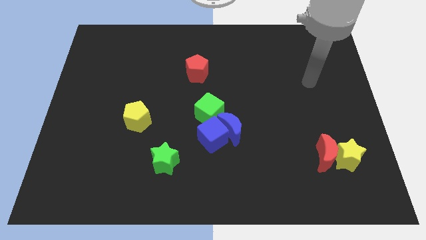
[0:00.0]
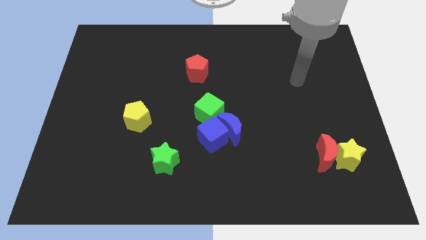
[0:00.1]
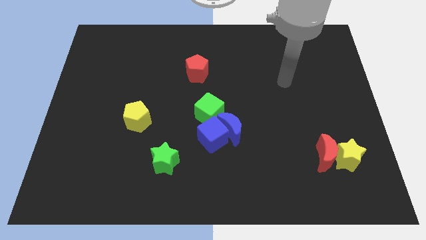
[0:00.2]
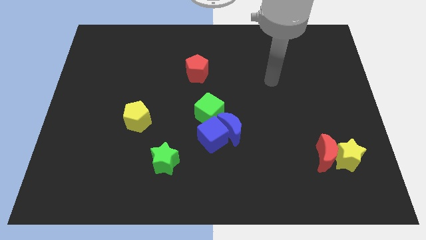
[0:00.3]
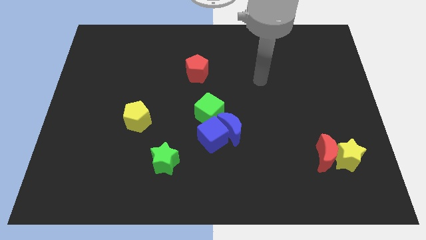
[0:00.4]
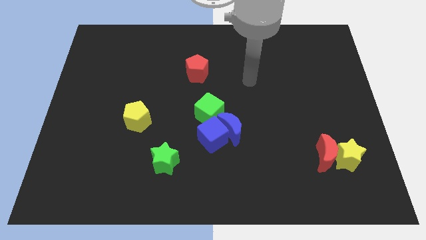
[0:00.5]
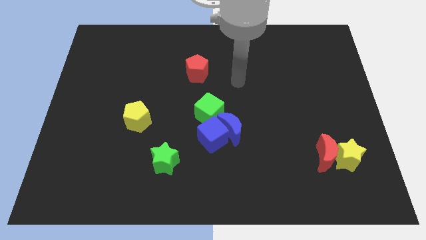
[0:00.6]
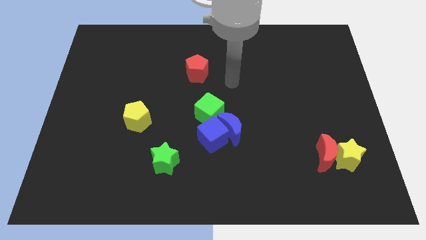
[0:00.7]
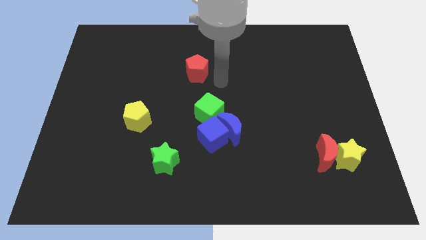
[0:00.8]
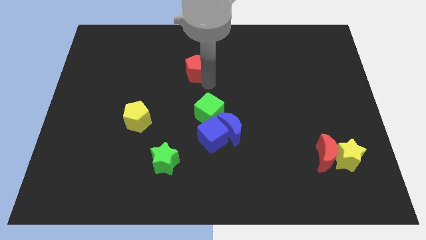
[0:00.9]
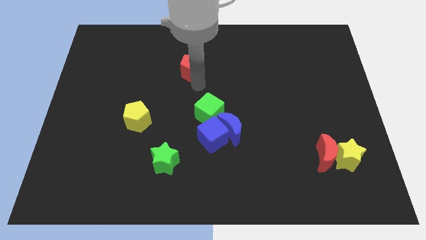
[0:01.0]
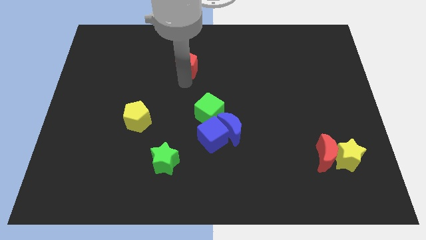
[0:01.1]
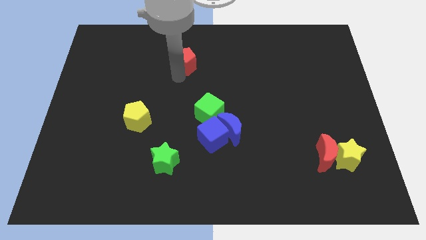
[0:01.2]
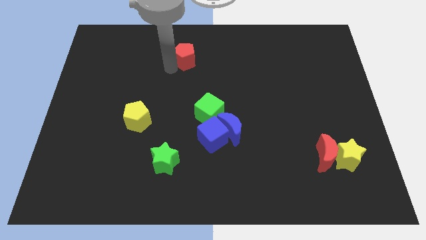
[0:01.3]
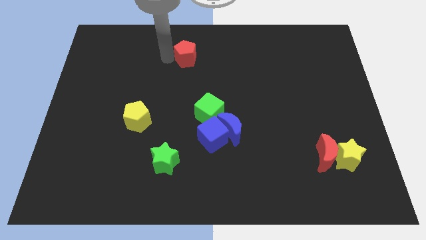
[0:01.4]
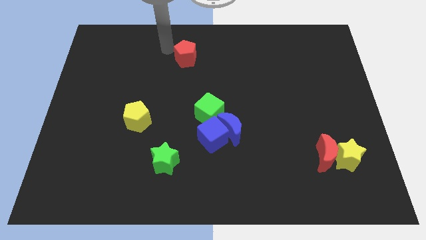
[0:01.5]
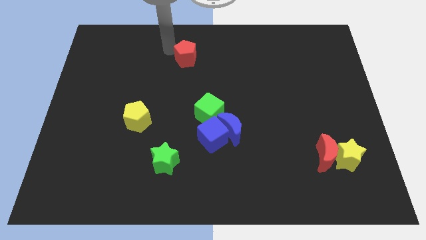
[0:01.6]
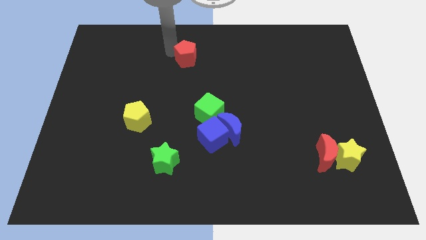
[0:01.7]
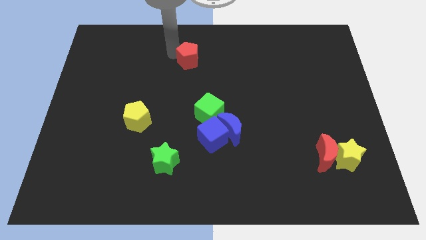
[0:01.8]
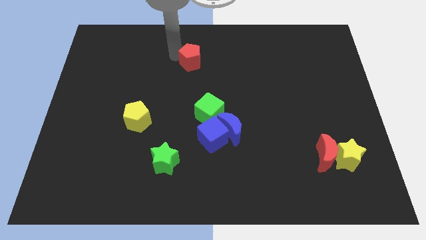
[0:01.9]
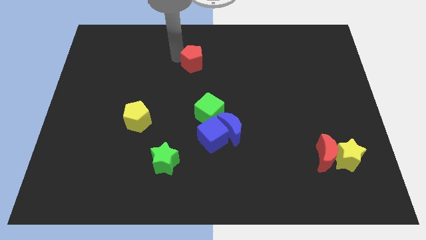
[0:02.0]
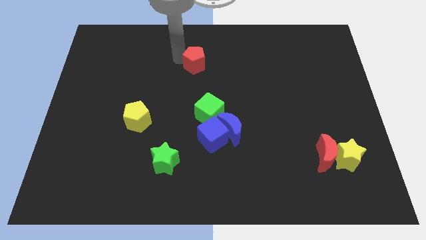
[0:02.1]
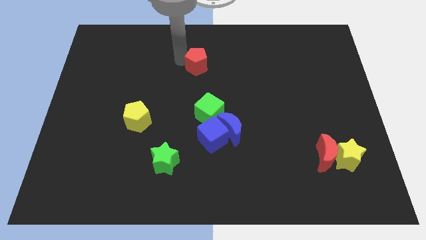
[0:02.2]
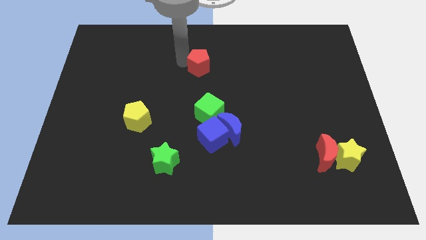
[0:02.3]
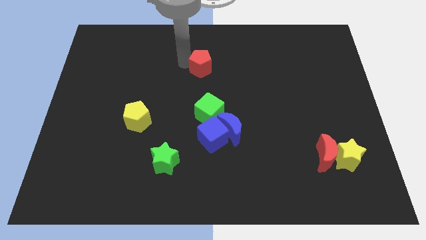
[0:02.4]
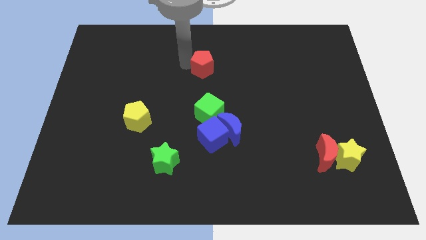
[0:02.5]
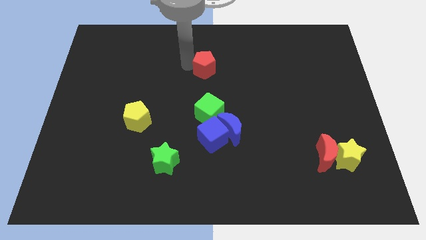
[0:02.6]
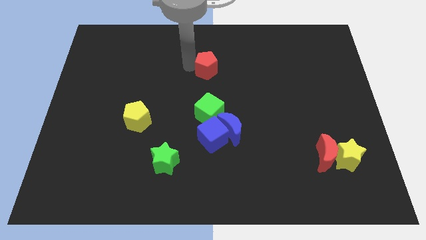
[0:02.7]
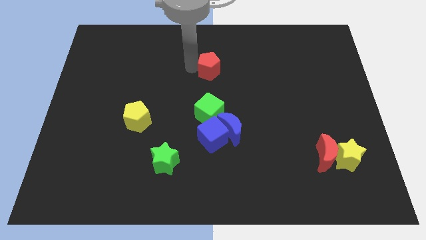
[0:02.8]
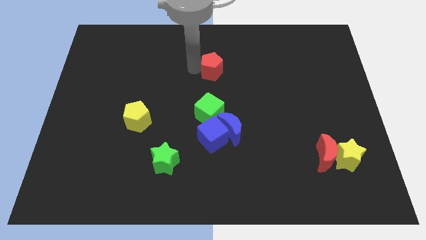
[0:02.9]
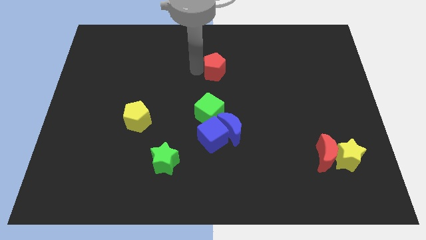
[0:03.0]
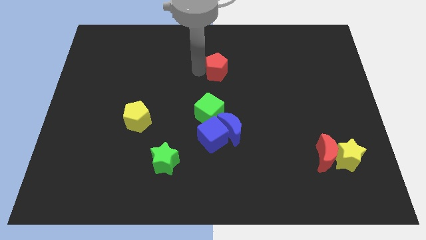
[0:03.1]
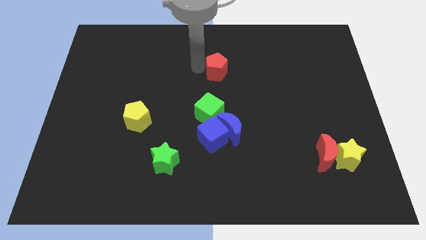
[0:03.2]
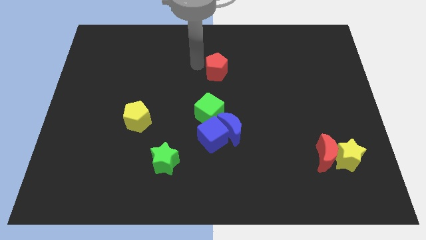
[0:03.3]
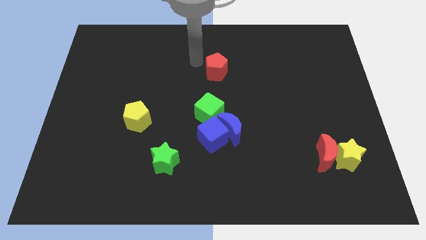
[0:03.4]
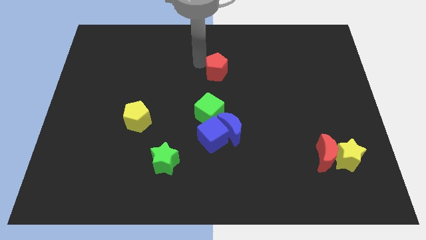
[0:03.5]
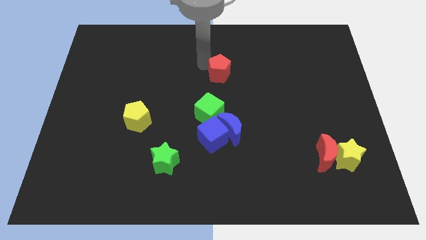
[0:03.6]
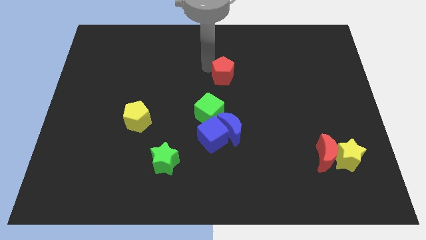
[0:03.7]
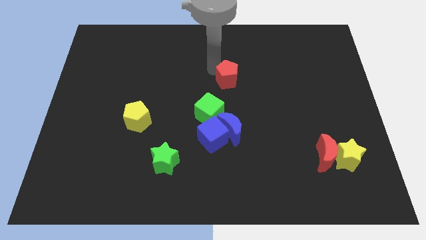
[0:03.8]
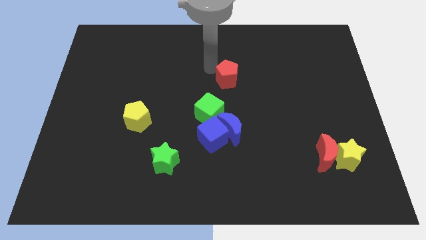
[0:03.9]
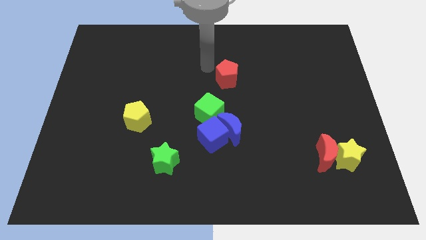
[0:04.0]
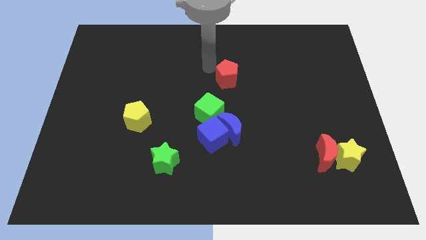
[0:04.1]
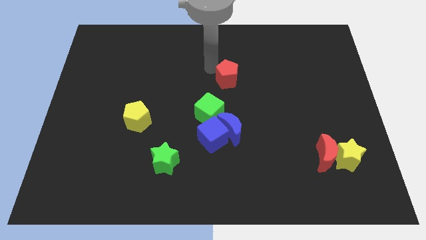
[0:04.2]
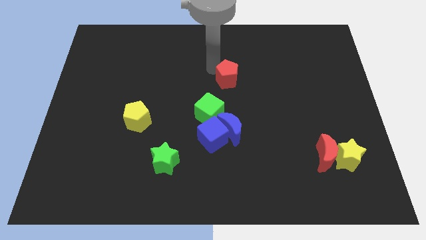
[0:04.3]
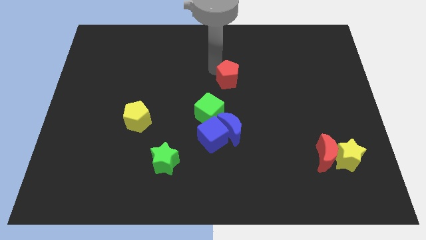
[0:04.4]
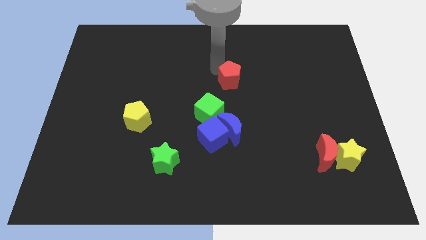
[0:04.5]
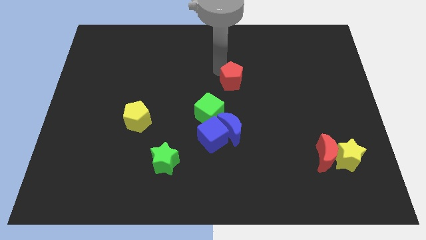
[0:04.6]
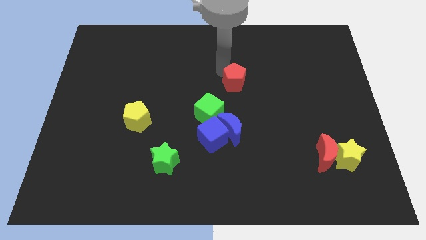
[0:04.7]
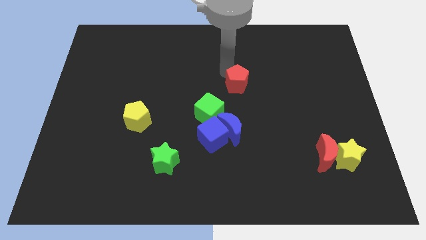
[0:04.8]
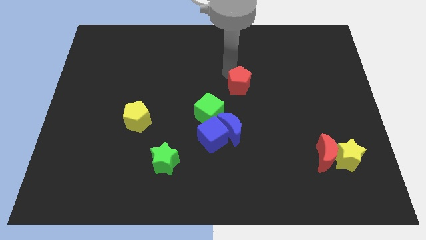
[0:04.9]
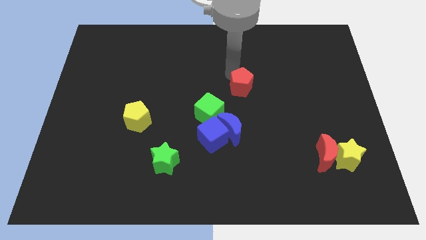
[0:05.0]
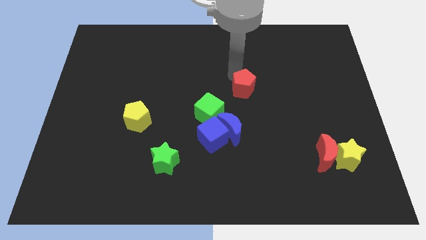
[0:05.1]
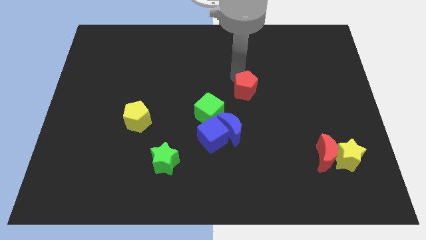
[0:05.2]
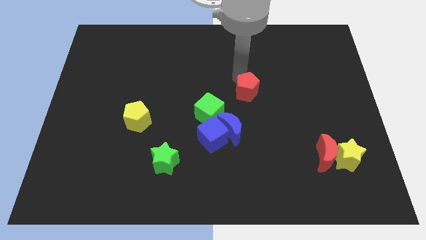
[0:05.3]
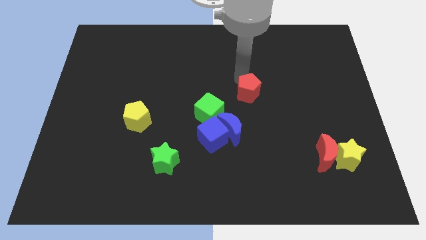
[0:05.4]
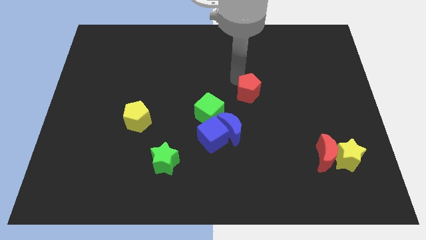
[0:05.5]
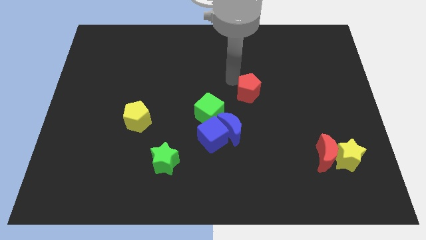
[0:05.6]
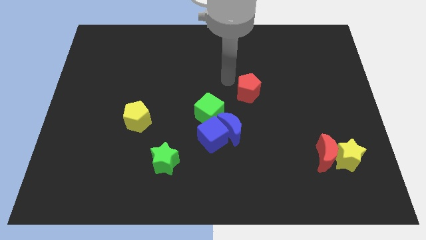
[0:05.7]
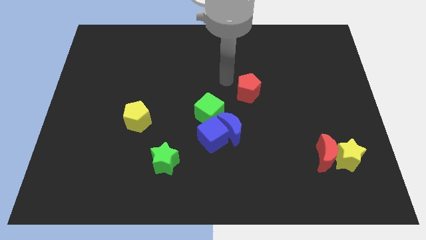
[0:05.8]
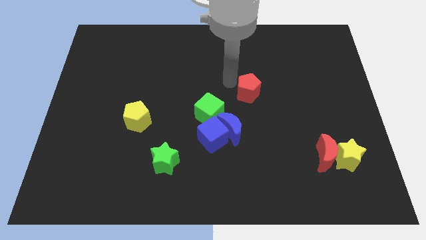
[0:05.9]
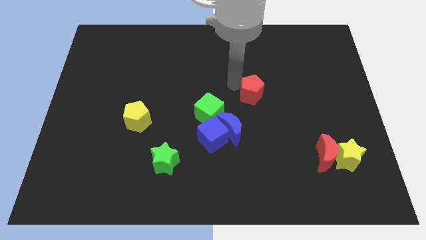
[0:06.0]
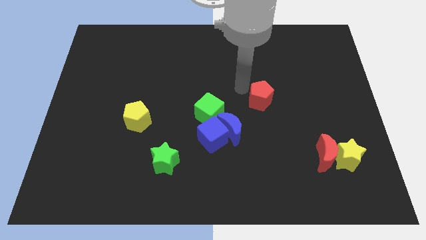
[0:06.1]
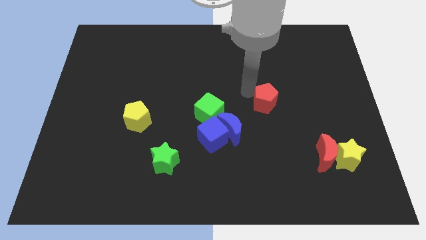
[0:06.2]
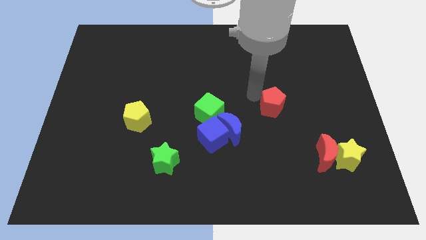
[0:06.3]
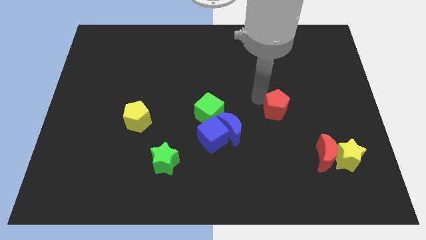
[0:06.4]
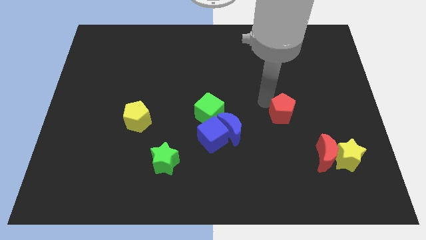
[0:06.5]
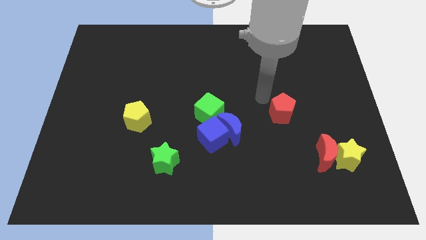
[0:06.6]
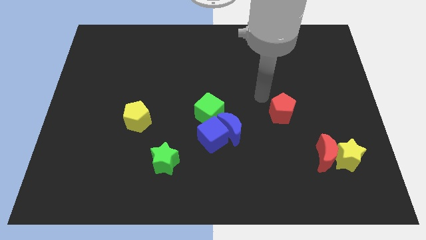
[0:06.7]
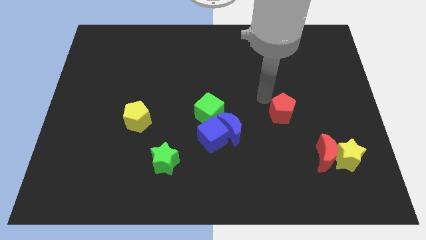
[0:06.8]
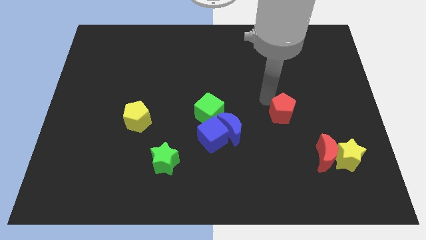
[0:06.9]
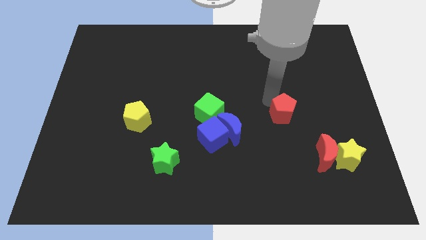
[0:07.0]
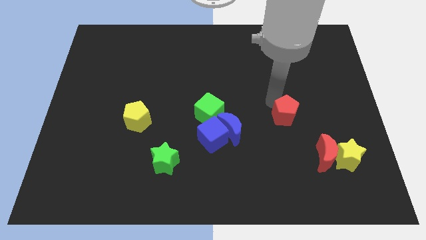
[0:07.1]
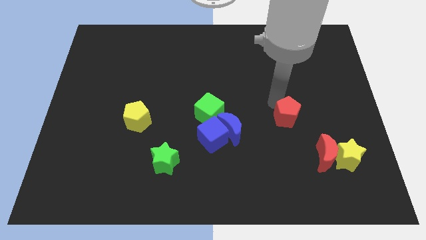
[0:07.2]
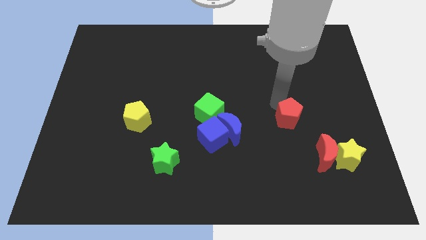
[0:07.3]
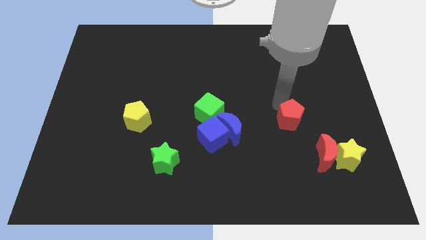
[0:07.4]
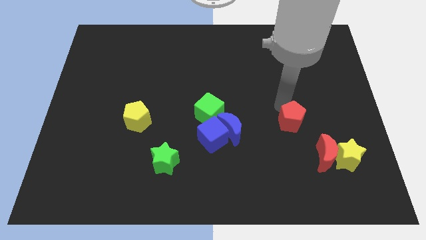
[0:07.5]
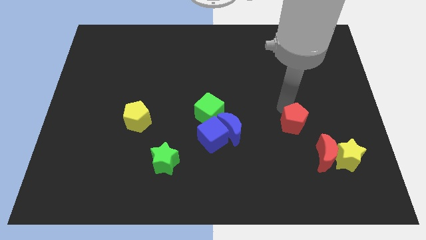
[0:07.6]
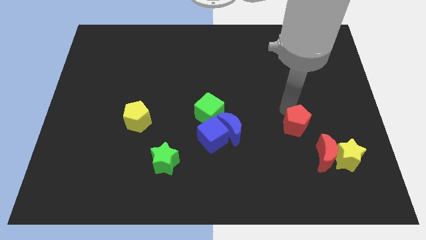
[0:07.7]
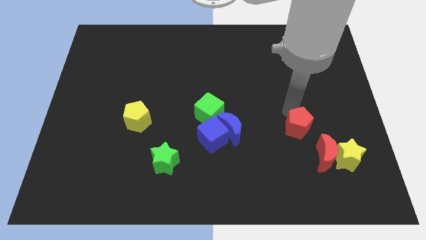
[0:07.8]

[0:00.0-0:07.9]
put the red pentagon to the top left of the yellow star

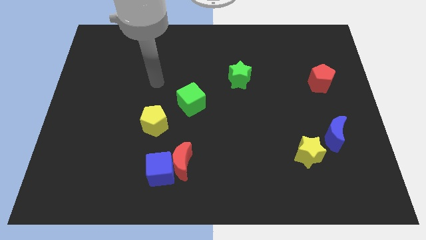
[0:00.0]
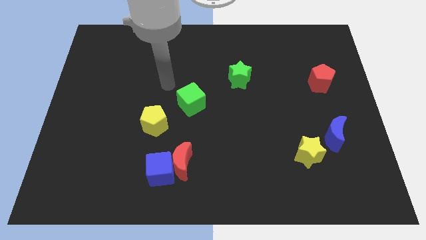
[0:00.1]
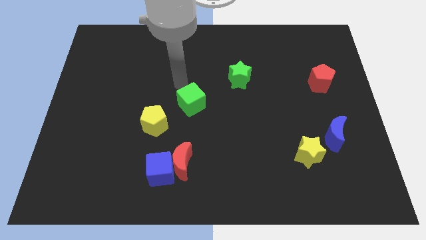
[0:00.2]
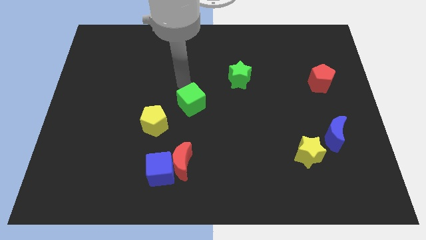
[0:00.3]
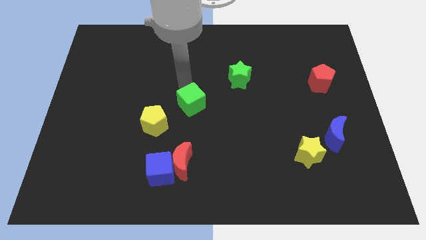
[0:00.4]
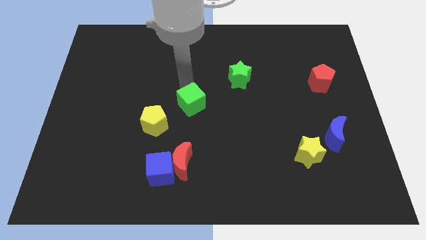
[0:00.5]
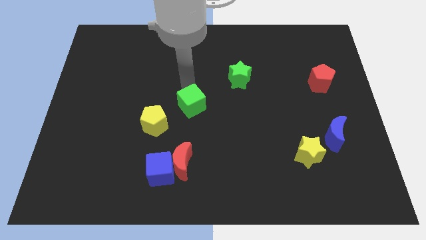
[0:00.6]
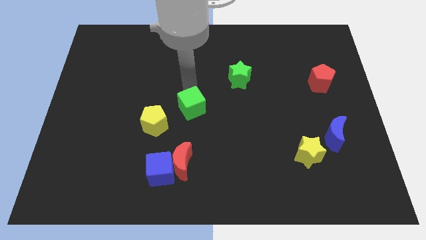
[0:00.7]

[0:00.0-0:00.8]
slide the green cube to the right of the yellow pentagon
